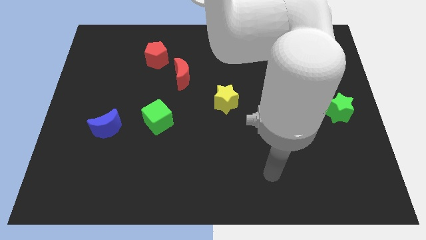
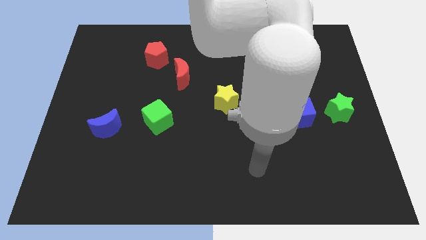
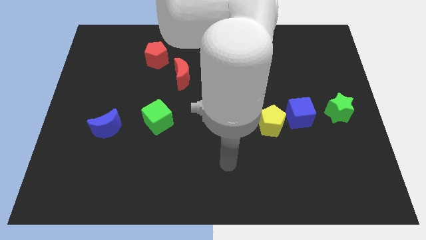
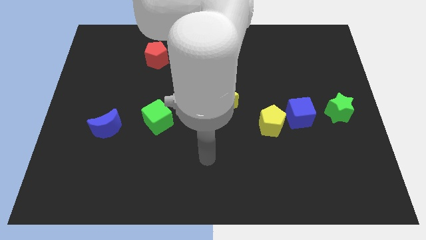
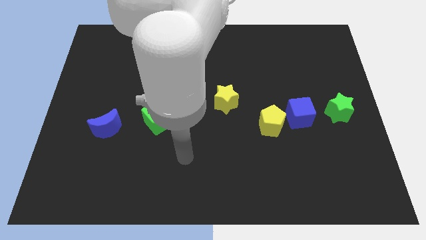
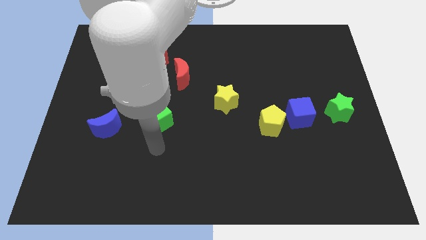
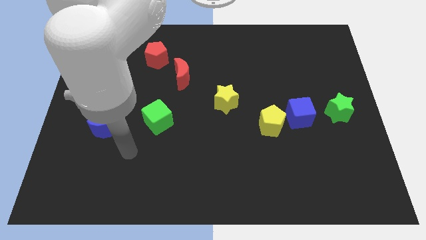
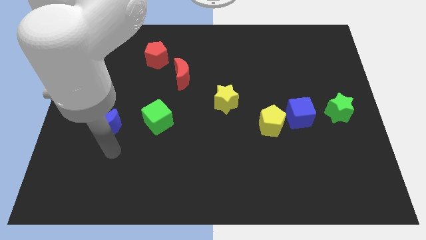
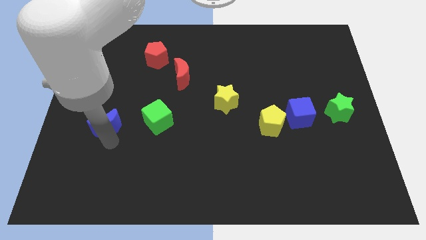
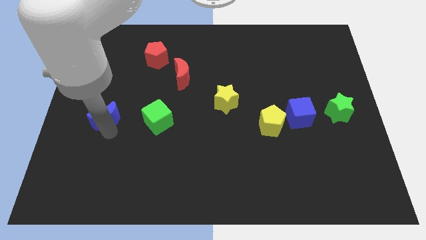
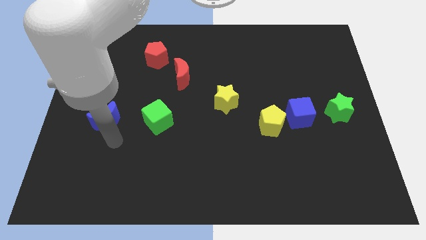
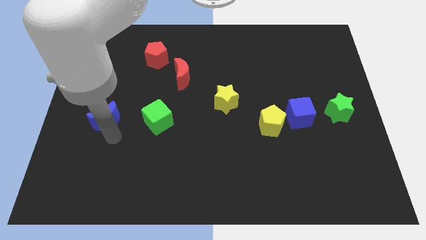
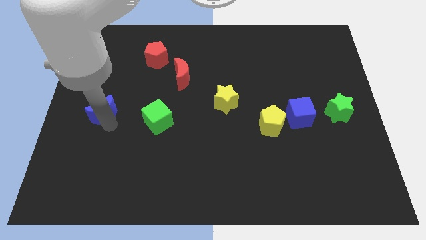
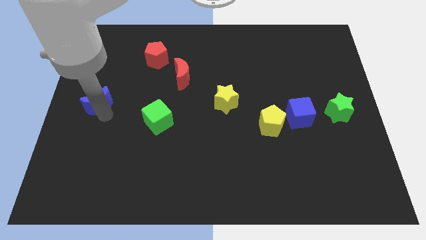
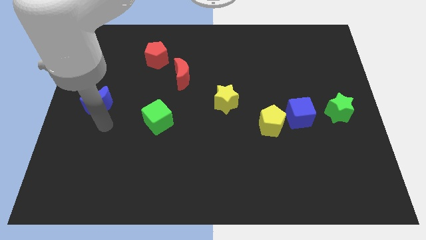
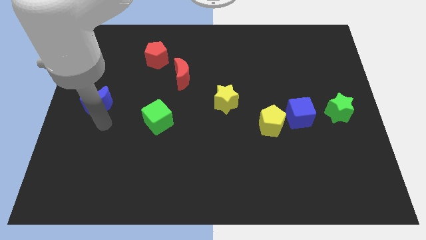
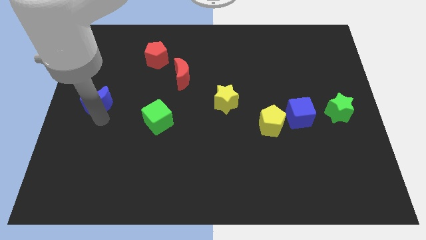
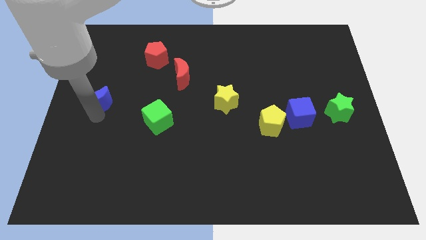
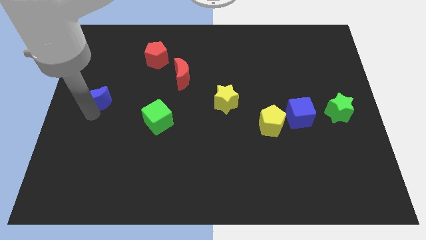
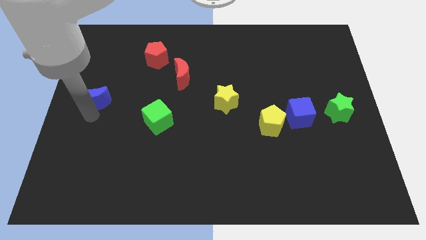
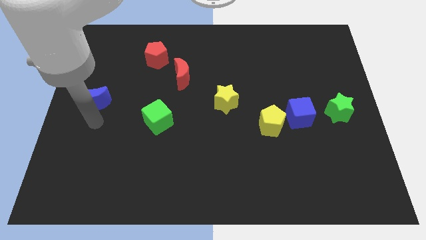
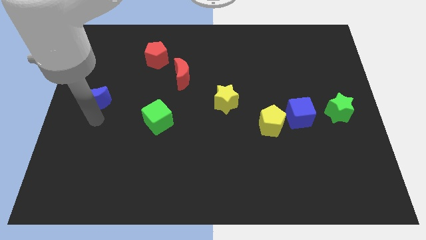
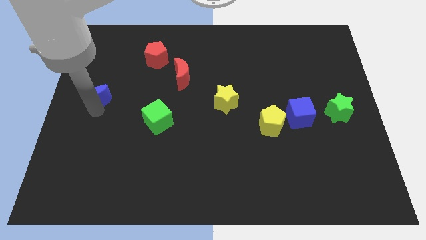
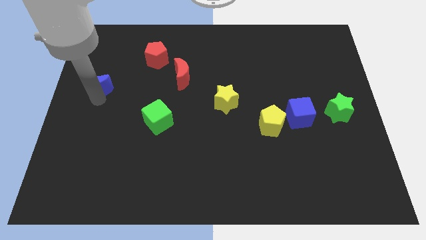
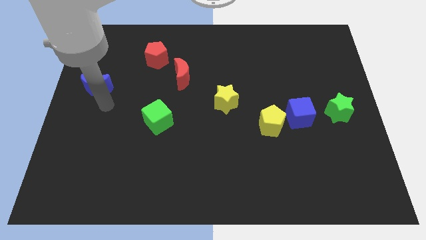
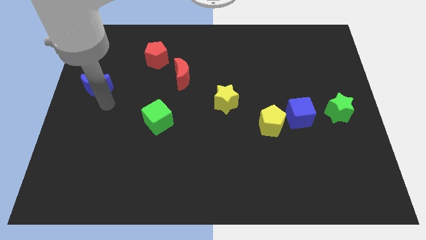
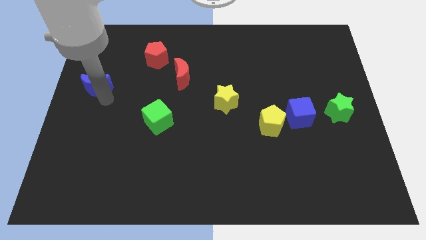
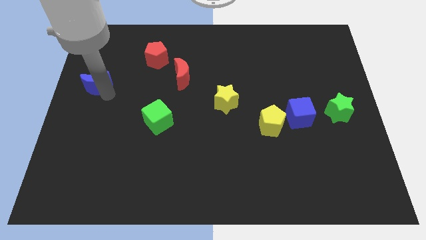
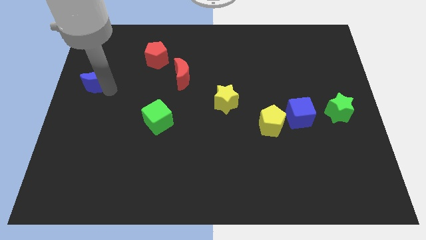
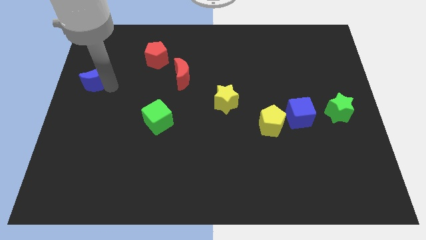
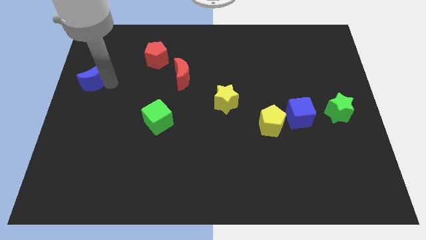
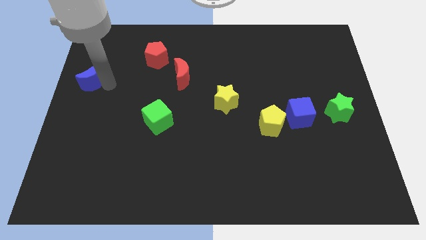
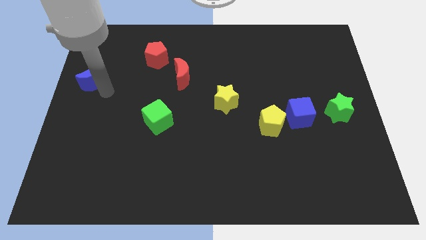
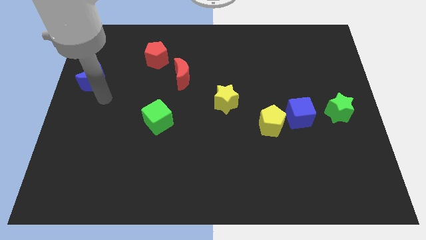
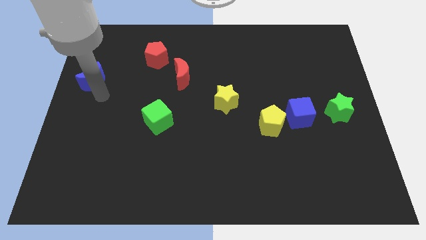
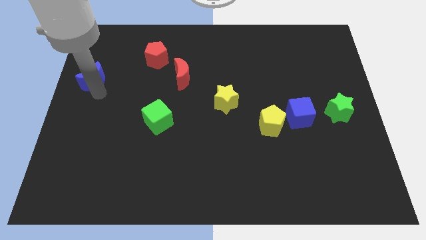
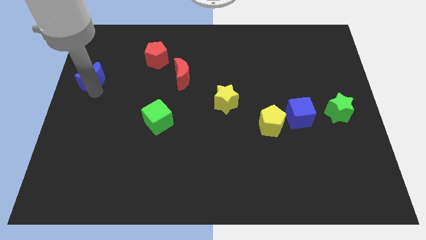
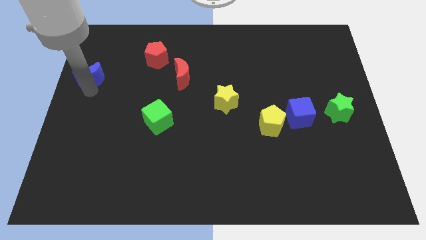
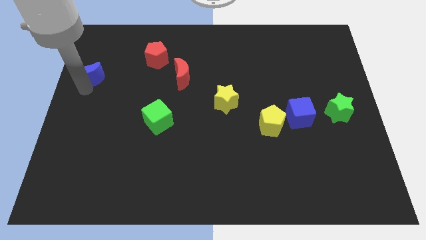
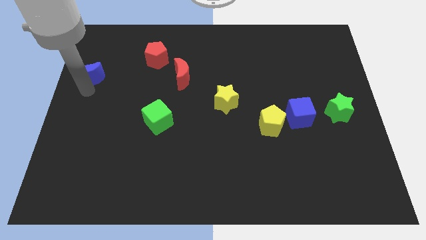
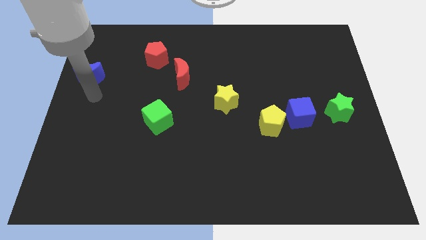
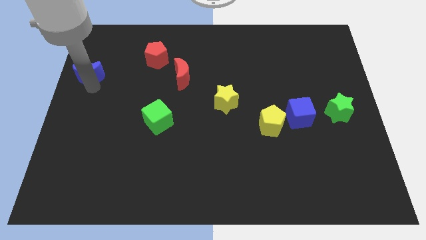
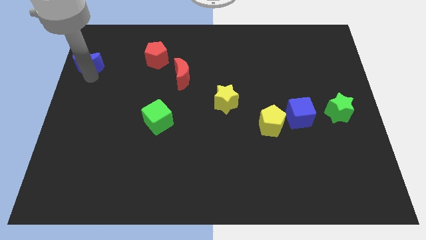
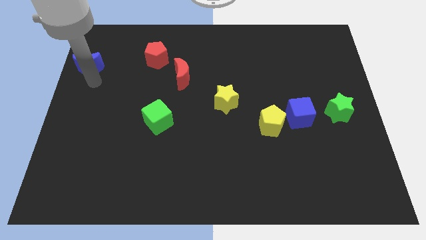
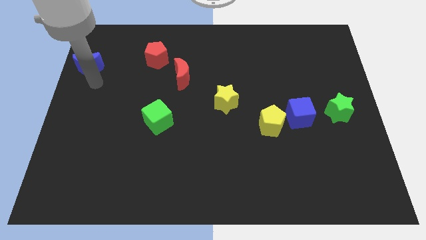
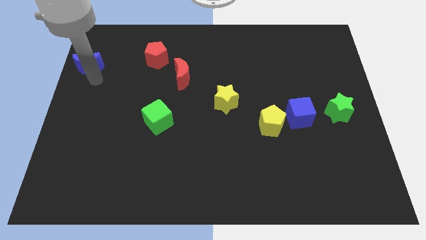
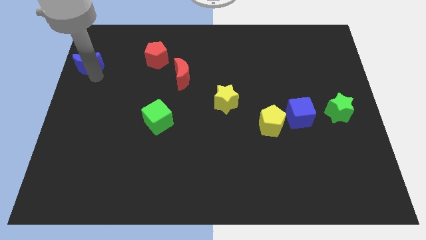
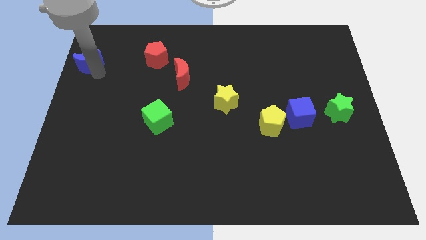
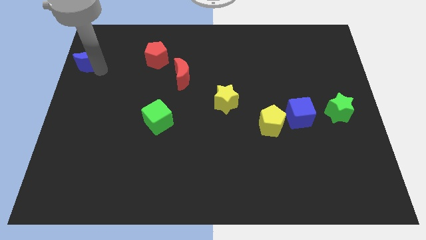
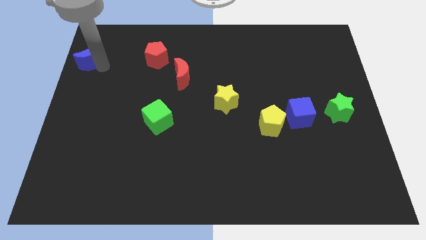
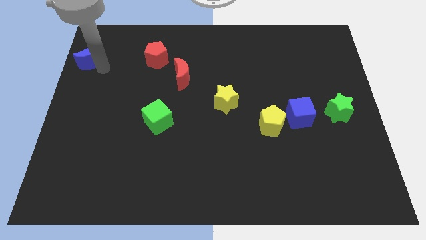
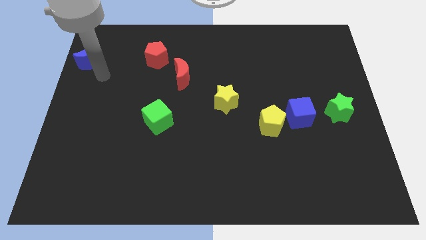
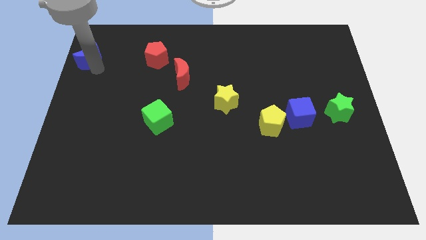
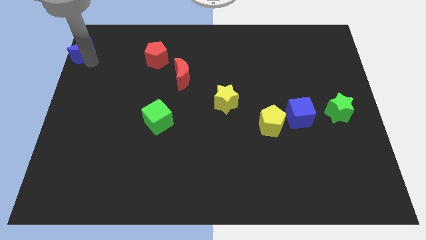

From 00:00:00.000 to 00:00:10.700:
push the blue moon to the top left of the board

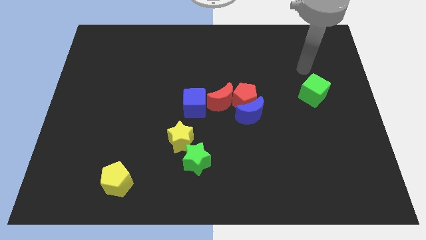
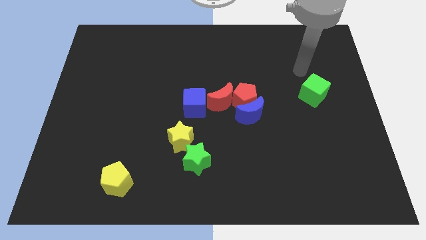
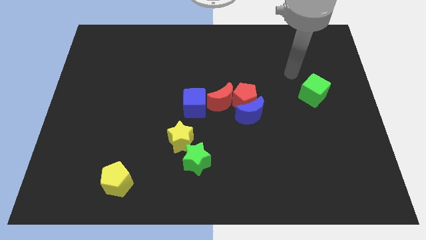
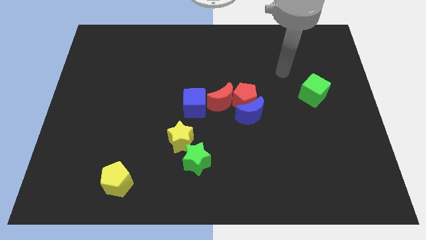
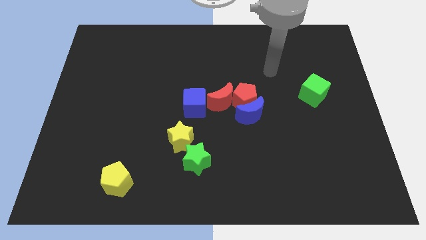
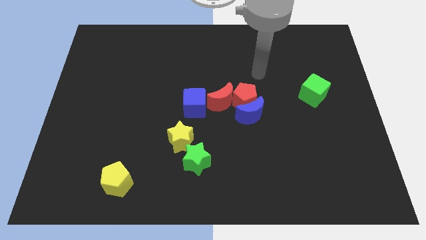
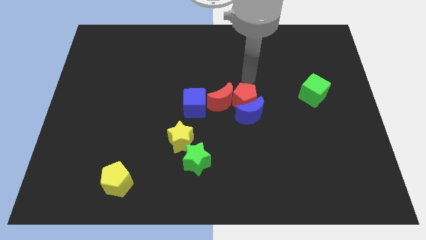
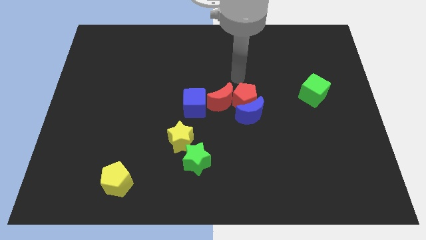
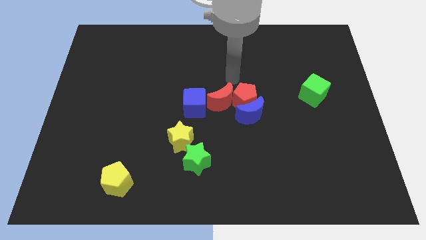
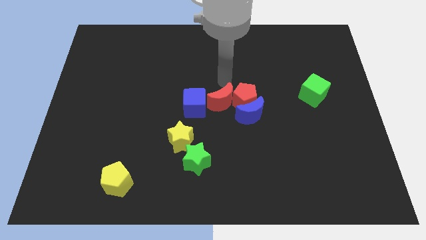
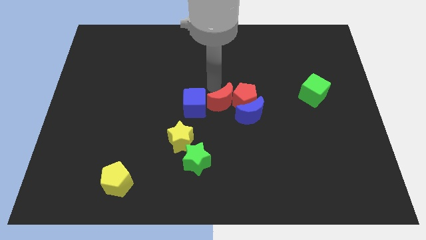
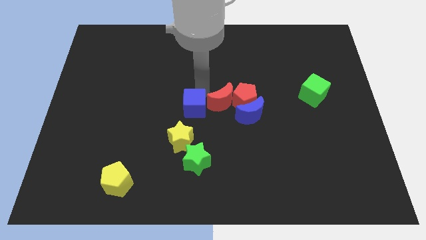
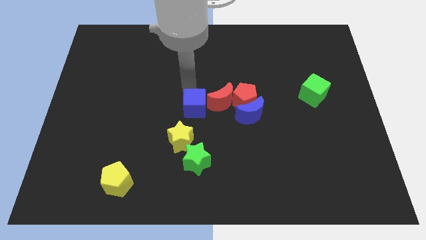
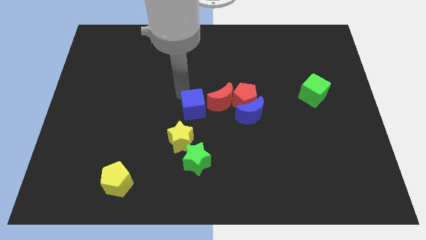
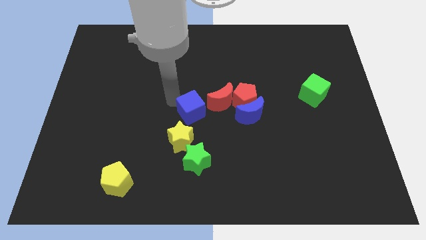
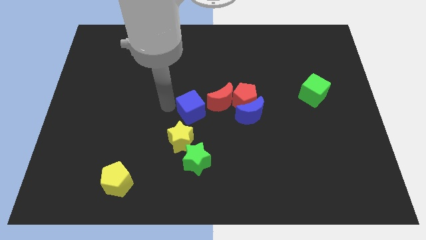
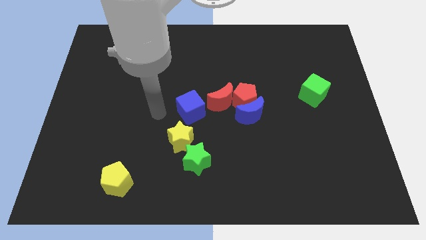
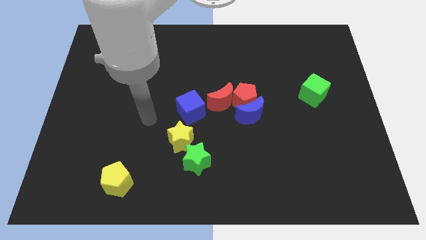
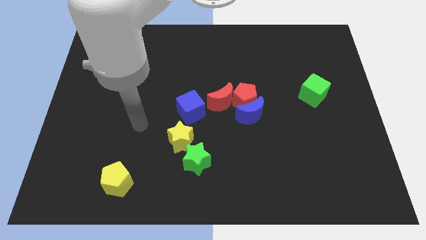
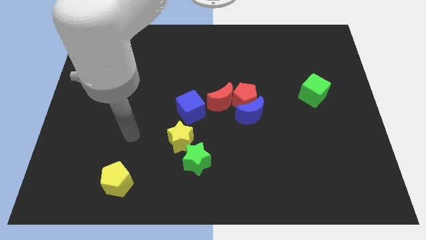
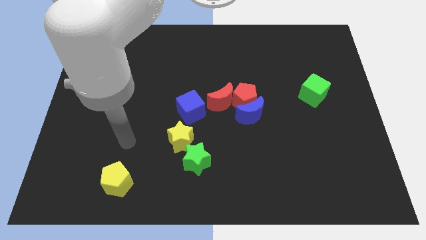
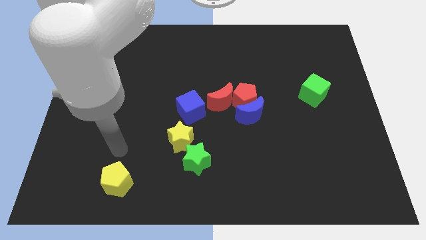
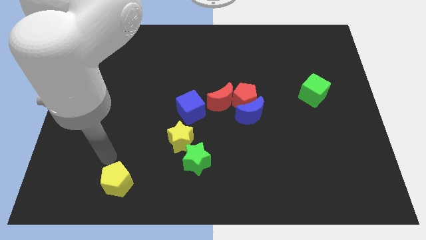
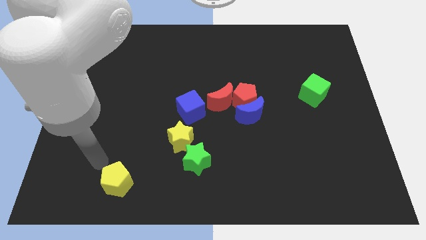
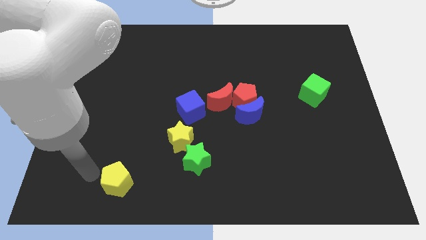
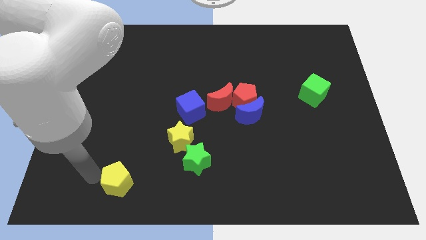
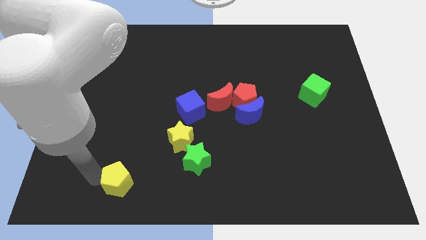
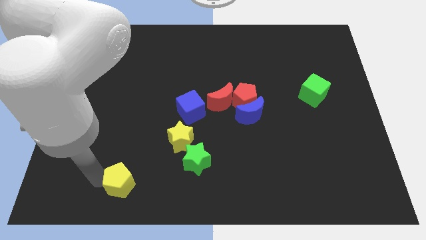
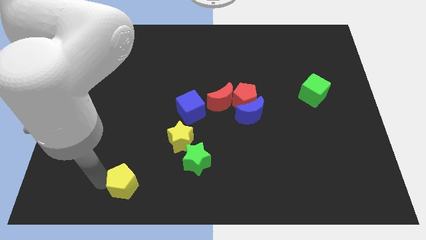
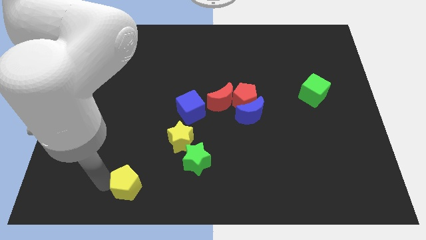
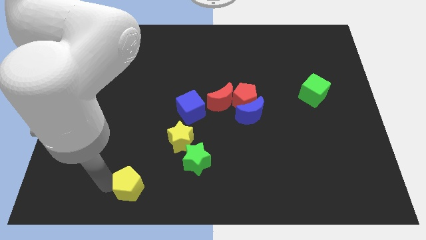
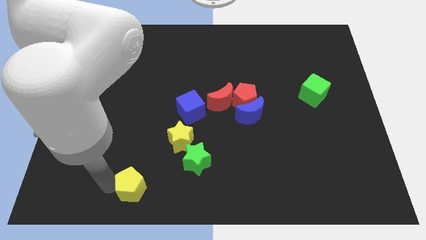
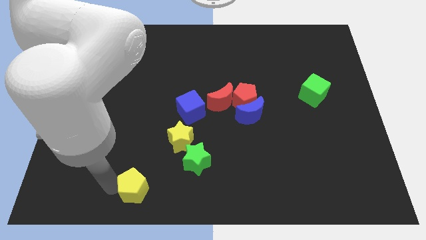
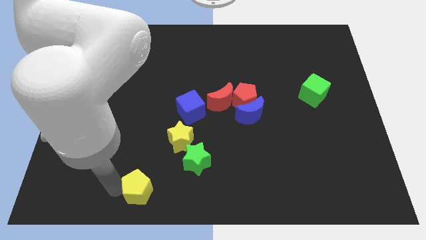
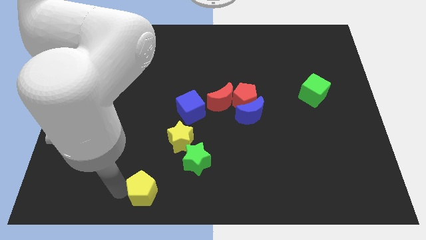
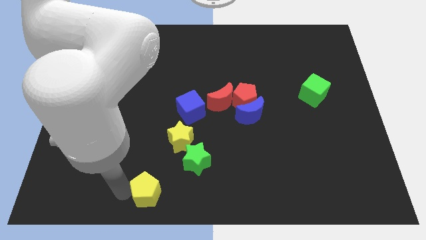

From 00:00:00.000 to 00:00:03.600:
put the yellow pentagon to the bottom side
